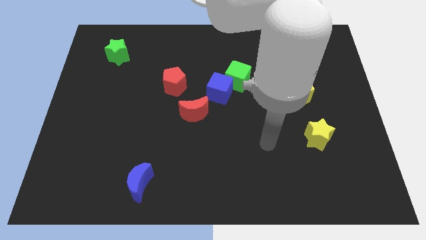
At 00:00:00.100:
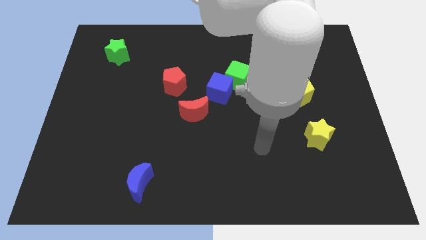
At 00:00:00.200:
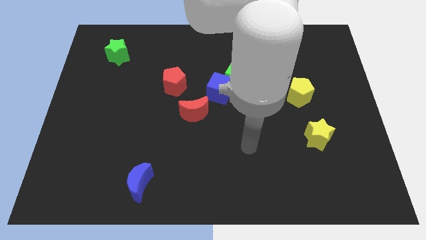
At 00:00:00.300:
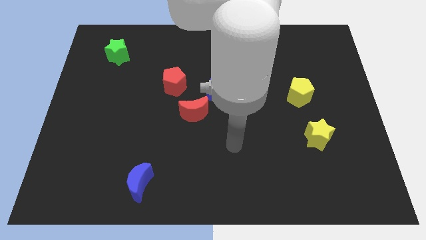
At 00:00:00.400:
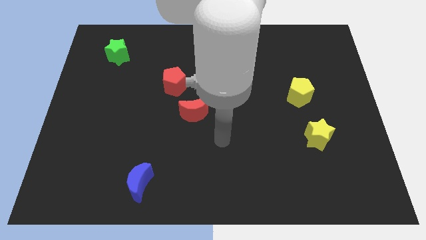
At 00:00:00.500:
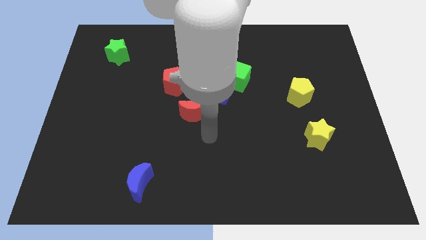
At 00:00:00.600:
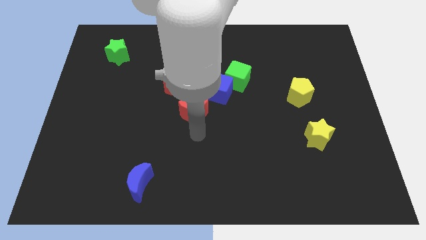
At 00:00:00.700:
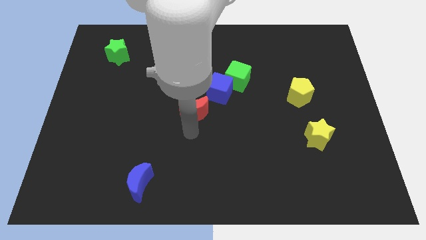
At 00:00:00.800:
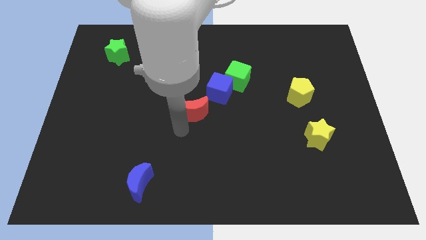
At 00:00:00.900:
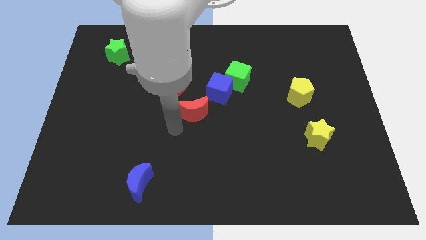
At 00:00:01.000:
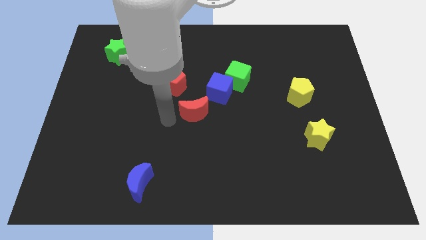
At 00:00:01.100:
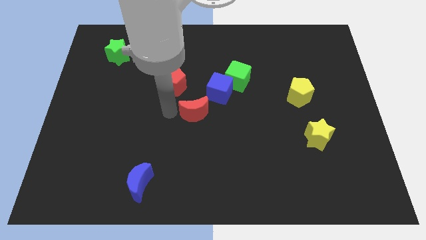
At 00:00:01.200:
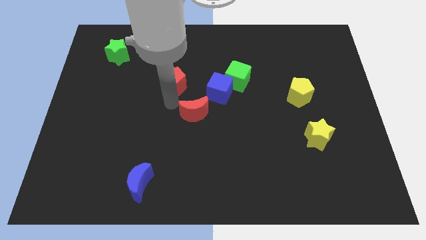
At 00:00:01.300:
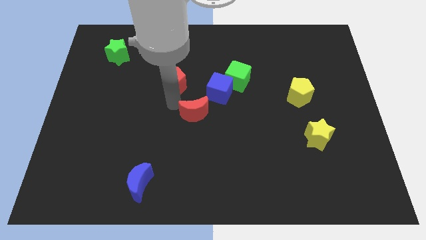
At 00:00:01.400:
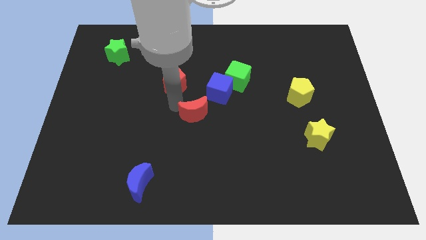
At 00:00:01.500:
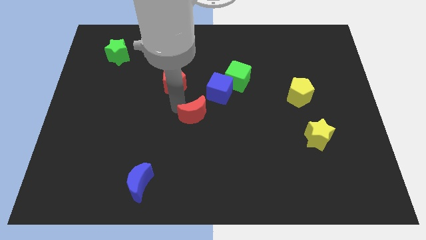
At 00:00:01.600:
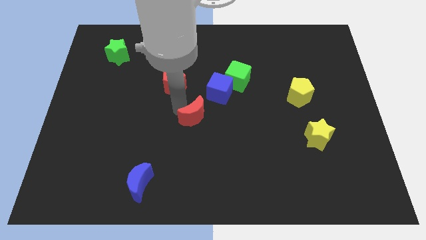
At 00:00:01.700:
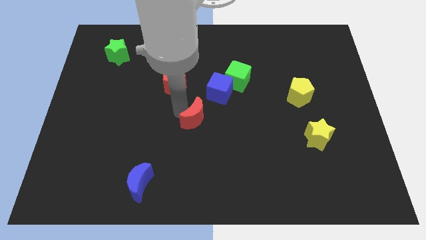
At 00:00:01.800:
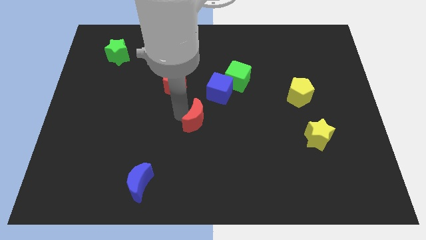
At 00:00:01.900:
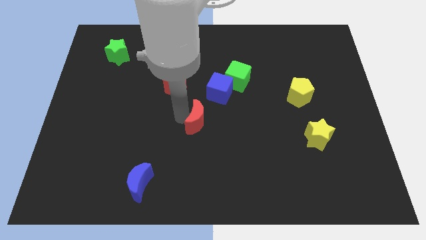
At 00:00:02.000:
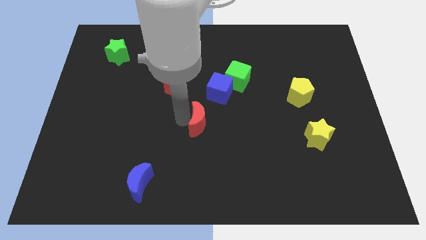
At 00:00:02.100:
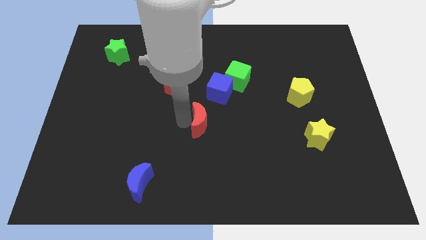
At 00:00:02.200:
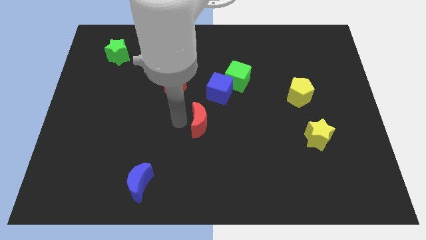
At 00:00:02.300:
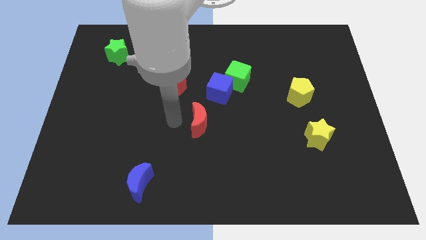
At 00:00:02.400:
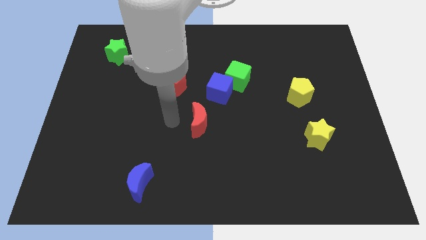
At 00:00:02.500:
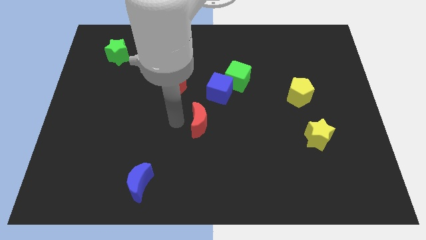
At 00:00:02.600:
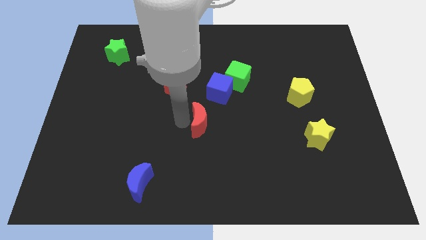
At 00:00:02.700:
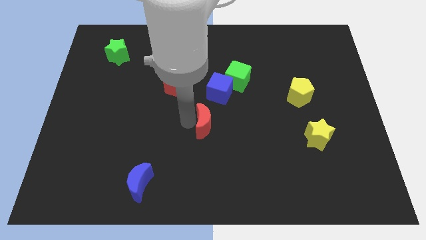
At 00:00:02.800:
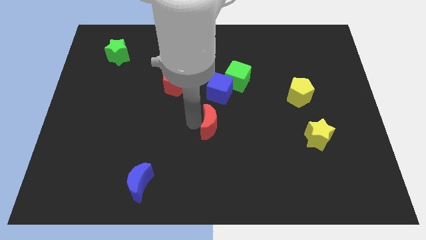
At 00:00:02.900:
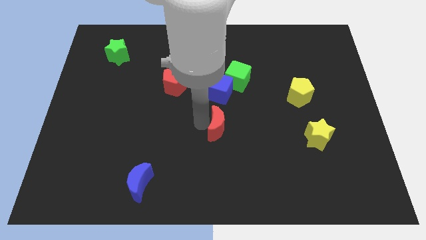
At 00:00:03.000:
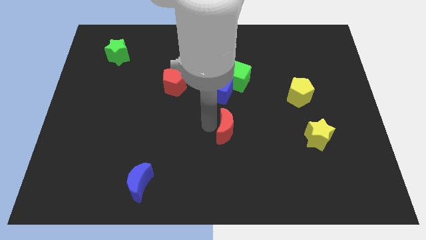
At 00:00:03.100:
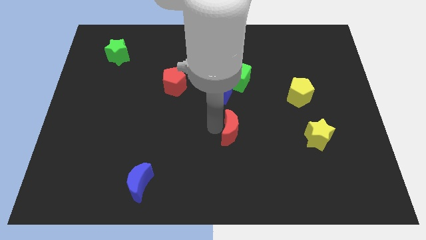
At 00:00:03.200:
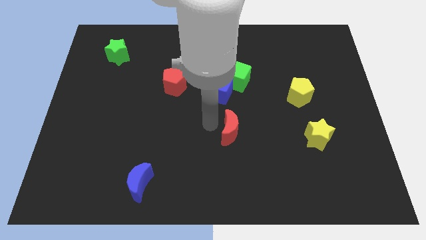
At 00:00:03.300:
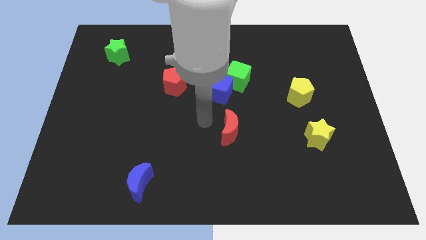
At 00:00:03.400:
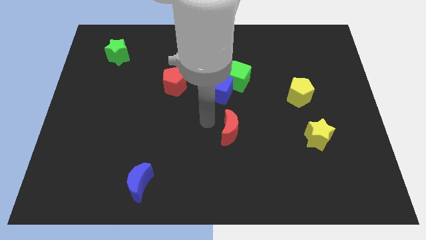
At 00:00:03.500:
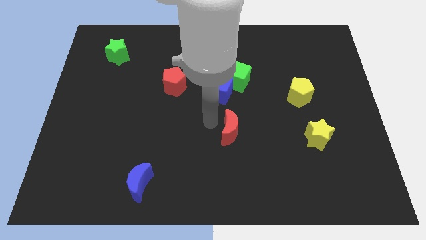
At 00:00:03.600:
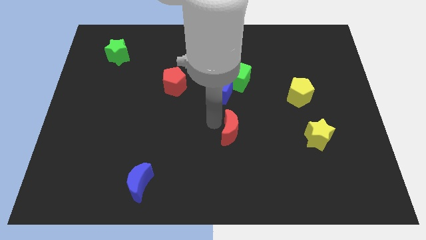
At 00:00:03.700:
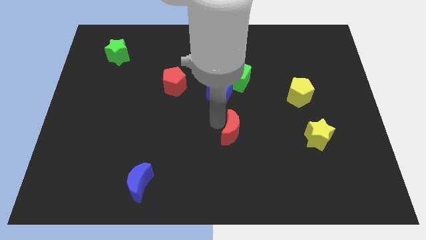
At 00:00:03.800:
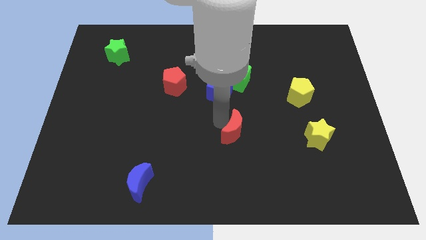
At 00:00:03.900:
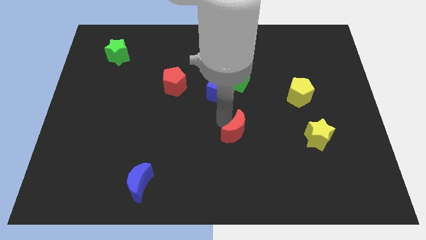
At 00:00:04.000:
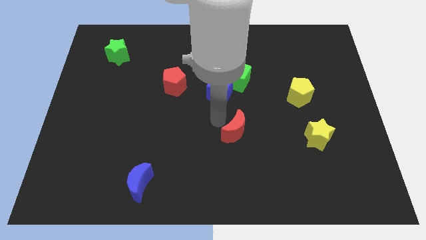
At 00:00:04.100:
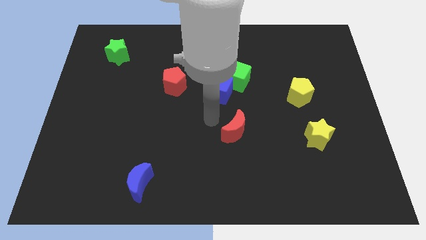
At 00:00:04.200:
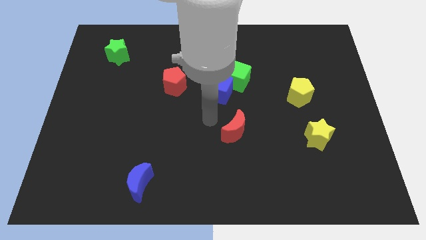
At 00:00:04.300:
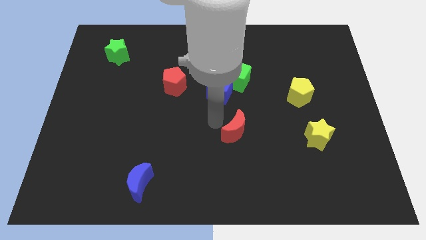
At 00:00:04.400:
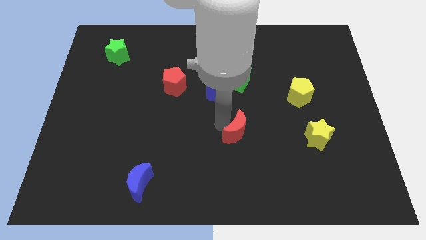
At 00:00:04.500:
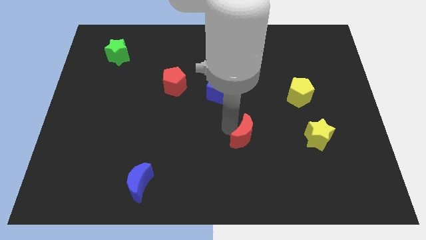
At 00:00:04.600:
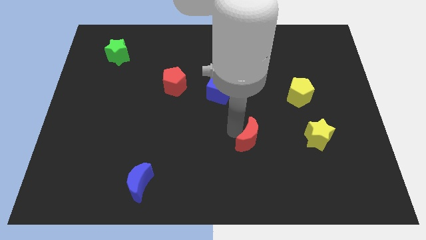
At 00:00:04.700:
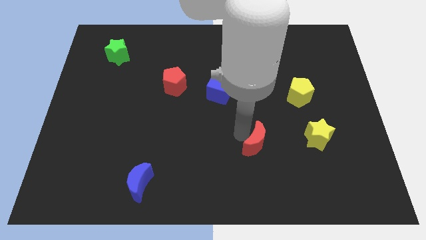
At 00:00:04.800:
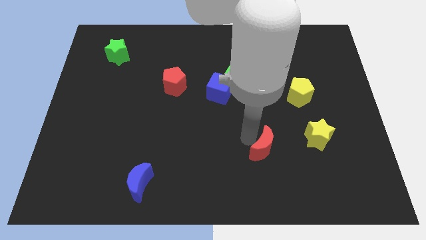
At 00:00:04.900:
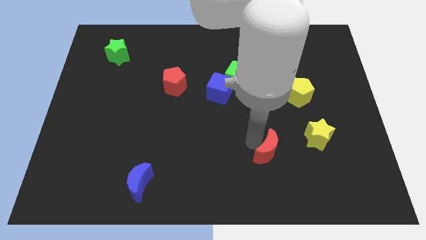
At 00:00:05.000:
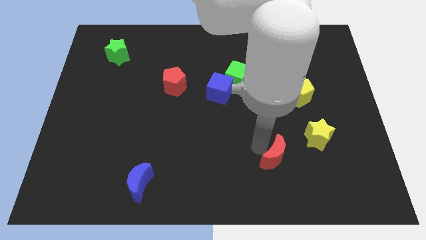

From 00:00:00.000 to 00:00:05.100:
put the red moon diagonally down and to the left of the yellow star

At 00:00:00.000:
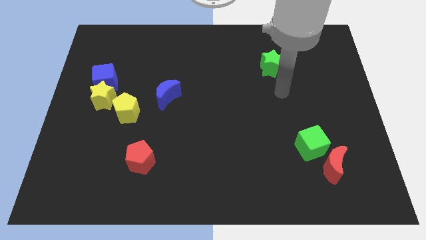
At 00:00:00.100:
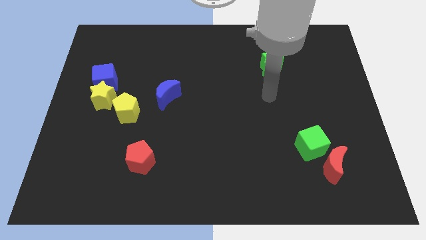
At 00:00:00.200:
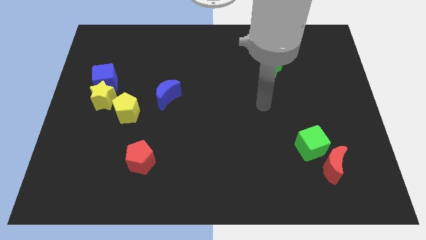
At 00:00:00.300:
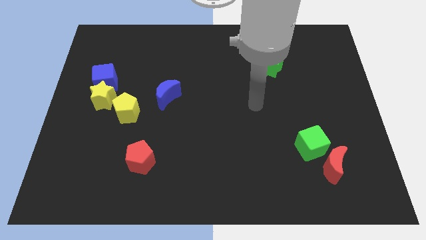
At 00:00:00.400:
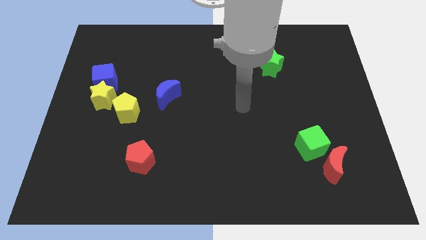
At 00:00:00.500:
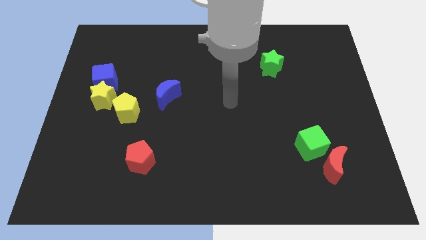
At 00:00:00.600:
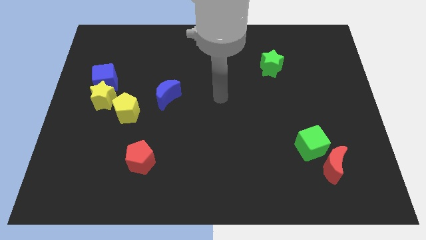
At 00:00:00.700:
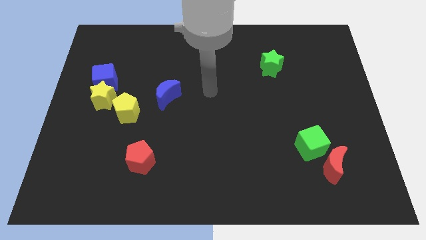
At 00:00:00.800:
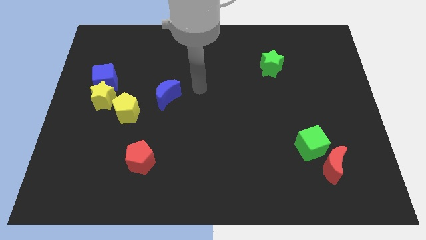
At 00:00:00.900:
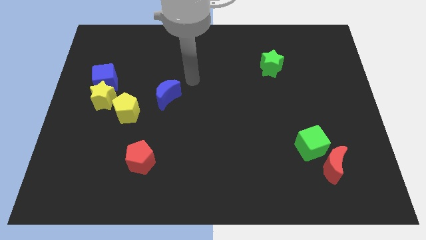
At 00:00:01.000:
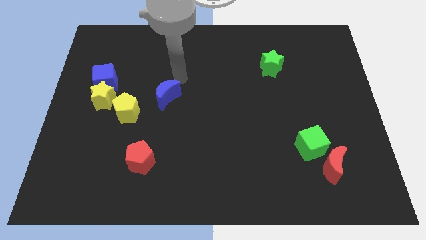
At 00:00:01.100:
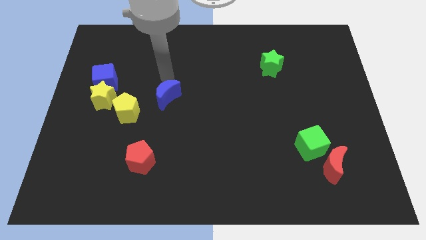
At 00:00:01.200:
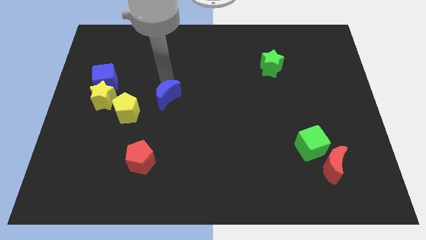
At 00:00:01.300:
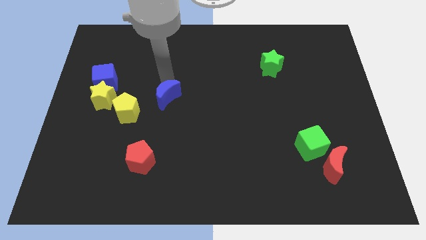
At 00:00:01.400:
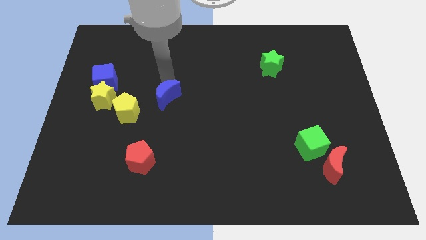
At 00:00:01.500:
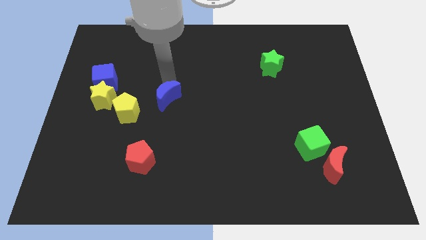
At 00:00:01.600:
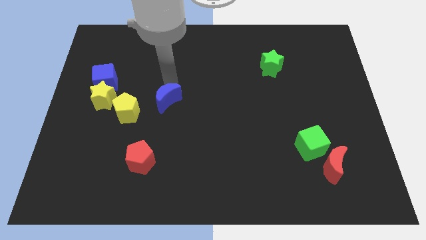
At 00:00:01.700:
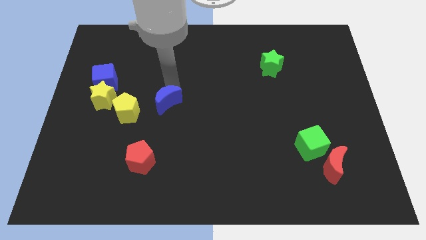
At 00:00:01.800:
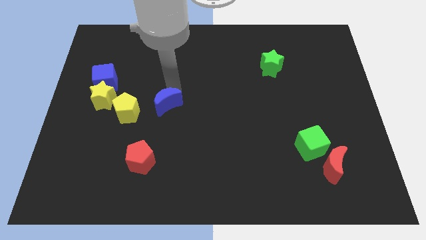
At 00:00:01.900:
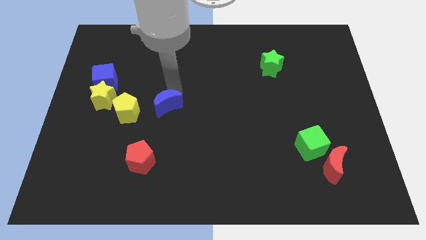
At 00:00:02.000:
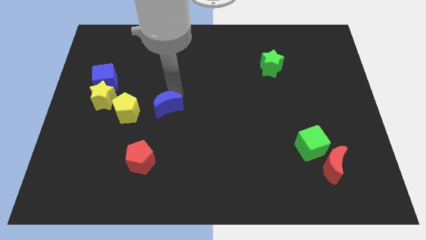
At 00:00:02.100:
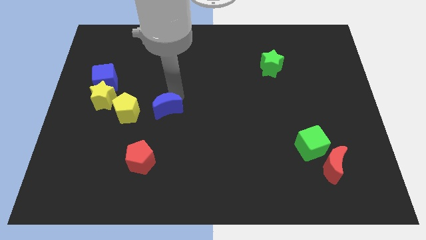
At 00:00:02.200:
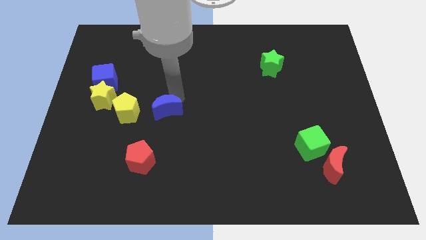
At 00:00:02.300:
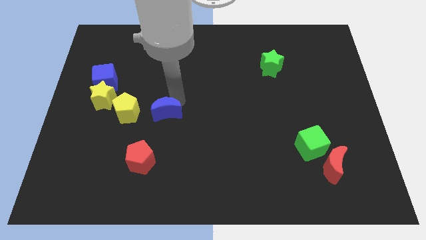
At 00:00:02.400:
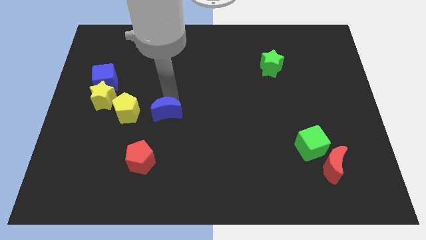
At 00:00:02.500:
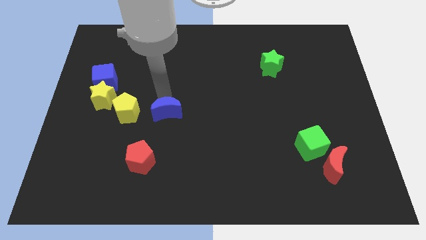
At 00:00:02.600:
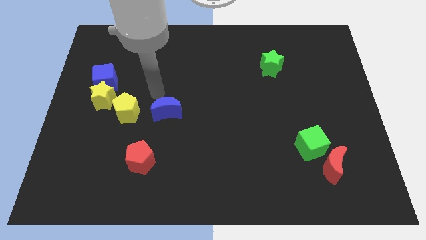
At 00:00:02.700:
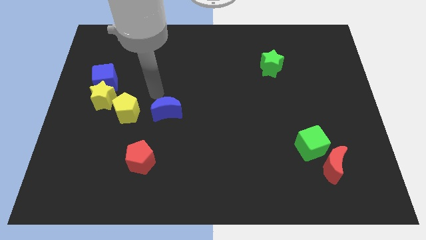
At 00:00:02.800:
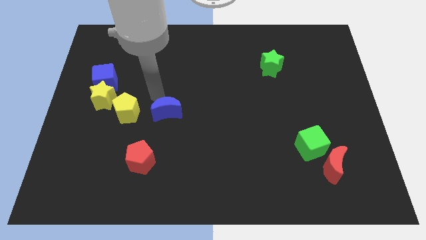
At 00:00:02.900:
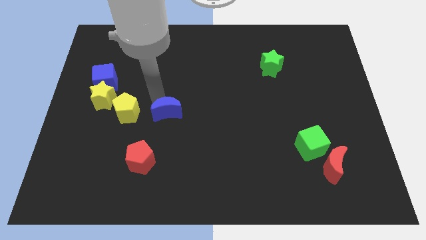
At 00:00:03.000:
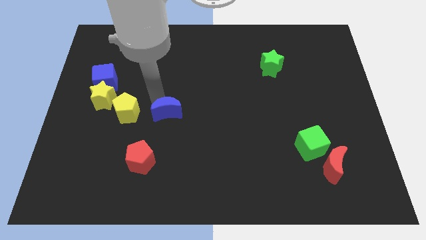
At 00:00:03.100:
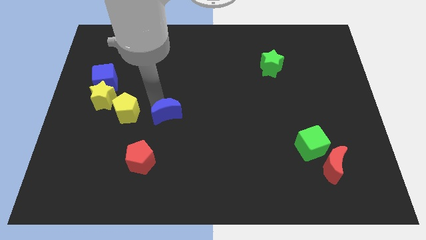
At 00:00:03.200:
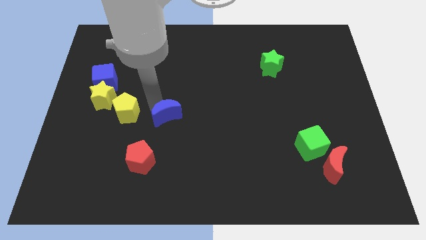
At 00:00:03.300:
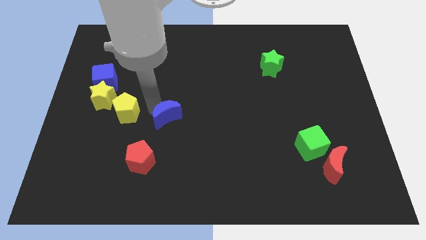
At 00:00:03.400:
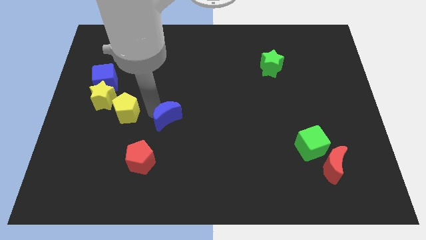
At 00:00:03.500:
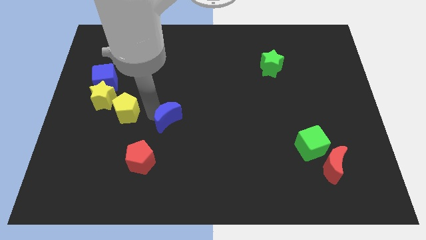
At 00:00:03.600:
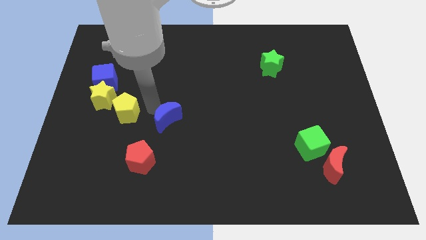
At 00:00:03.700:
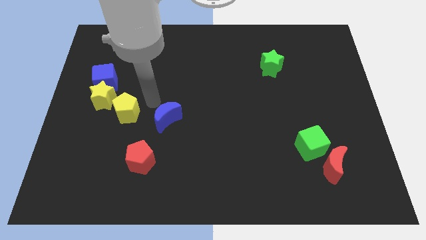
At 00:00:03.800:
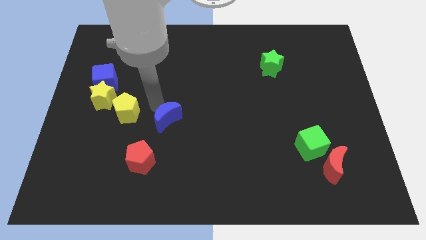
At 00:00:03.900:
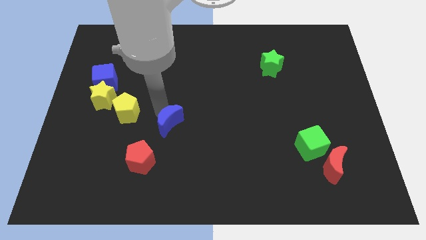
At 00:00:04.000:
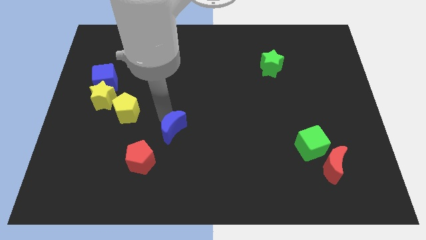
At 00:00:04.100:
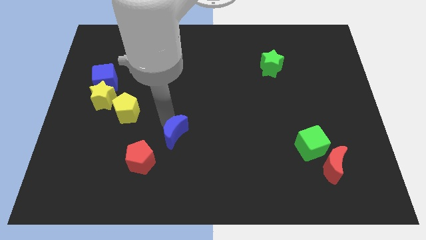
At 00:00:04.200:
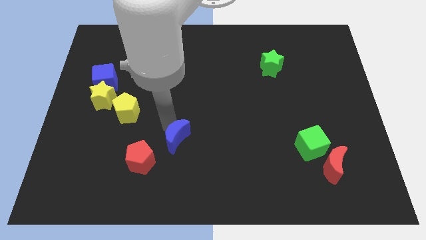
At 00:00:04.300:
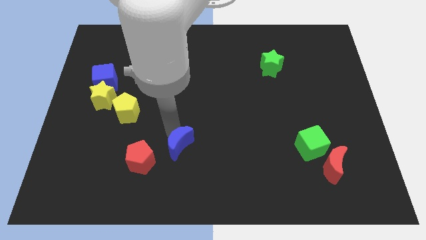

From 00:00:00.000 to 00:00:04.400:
put the blue moon right of the red pentagon
